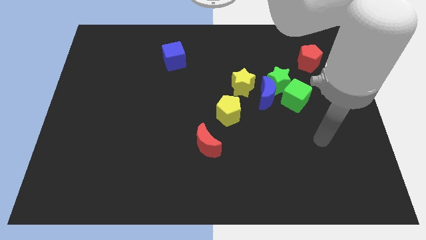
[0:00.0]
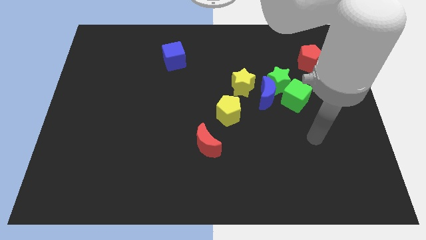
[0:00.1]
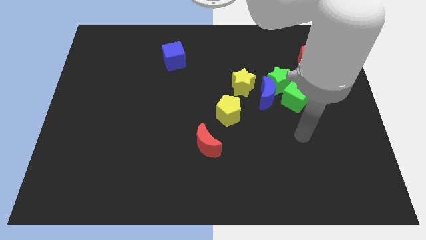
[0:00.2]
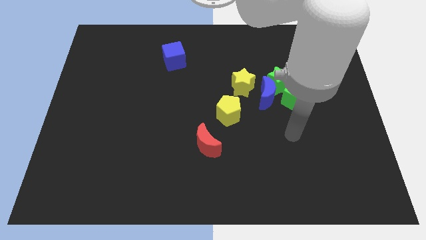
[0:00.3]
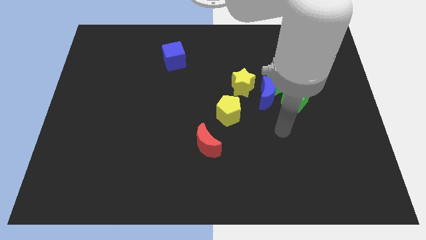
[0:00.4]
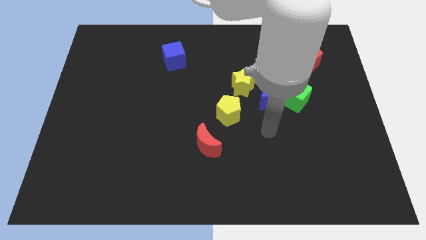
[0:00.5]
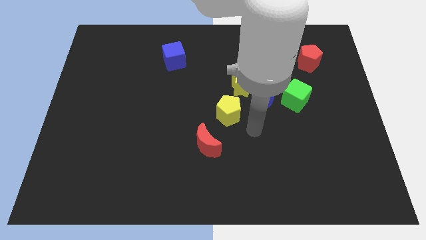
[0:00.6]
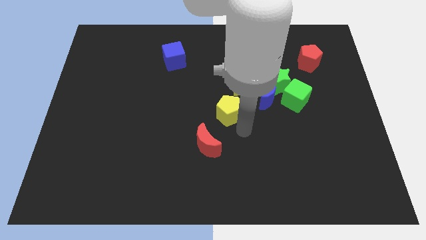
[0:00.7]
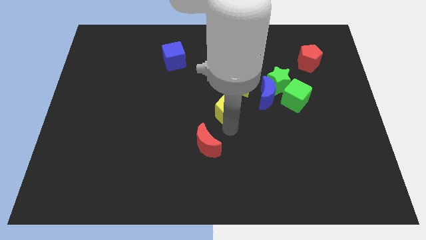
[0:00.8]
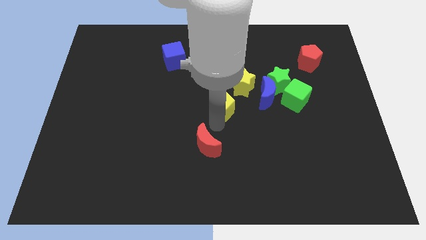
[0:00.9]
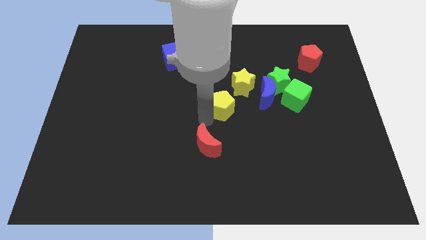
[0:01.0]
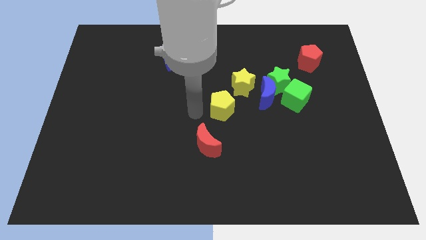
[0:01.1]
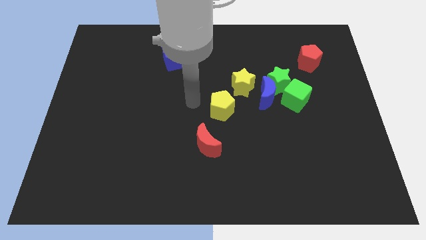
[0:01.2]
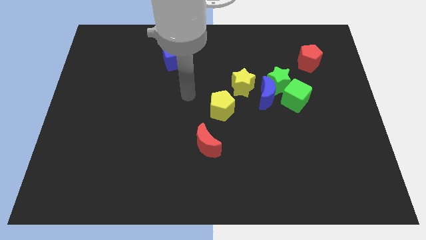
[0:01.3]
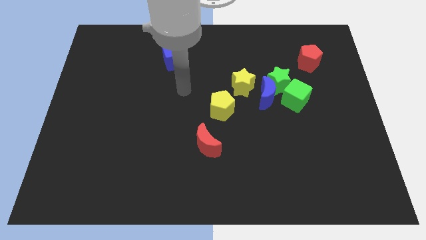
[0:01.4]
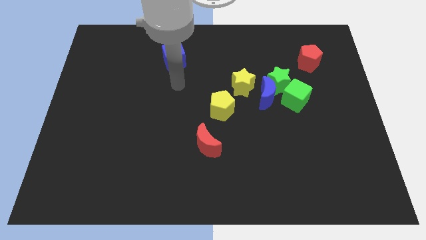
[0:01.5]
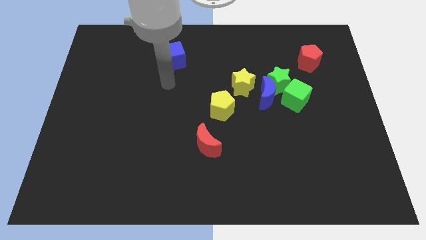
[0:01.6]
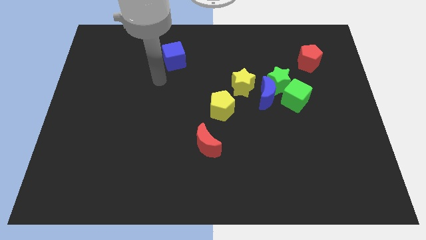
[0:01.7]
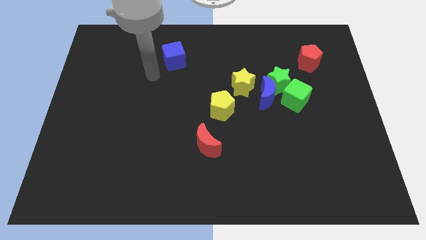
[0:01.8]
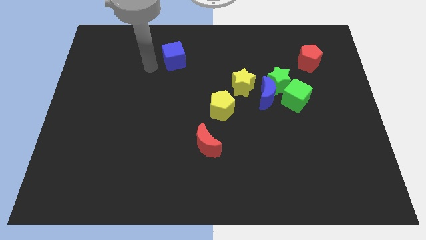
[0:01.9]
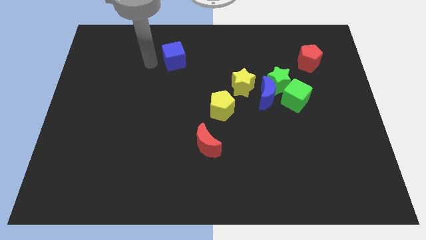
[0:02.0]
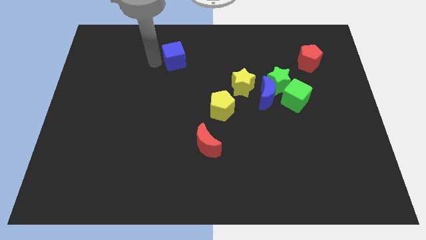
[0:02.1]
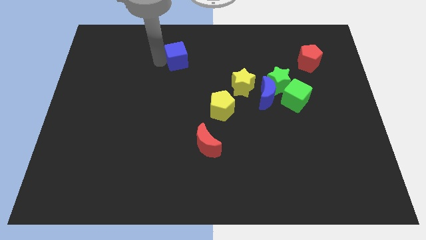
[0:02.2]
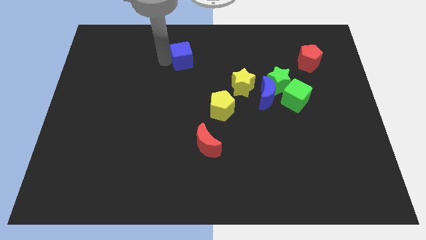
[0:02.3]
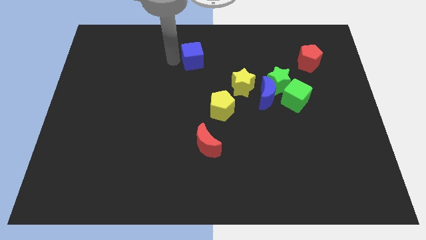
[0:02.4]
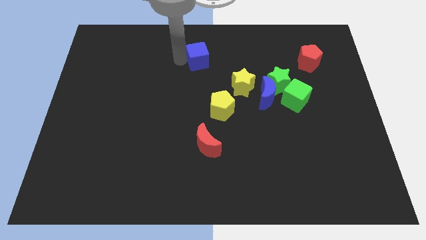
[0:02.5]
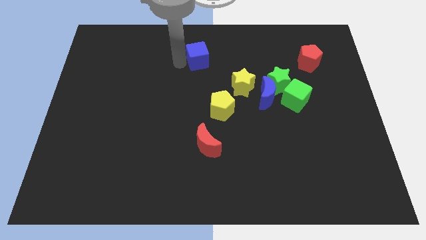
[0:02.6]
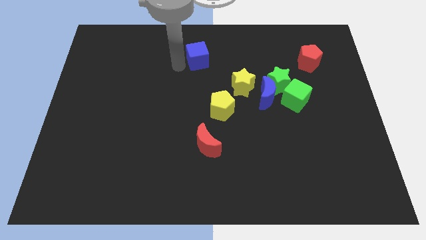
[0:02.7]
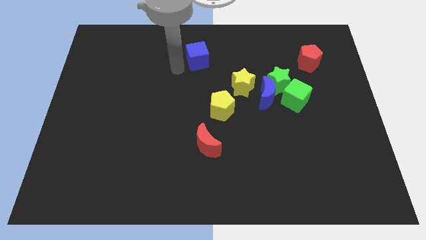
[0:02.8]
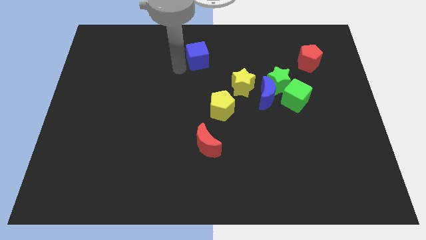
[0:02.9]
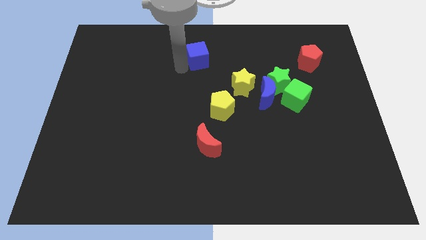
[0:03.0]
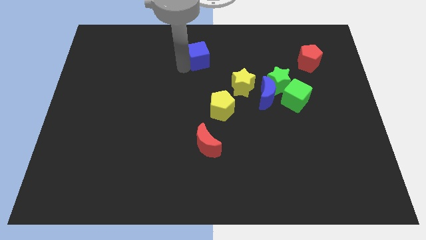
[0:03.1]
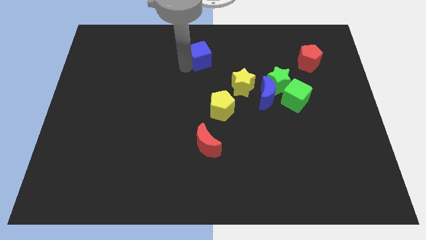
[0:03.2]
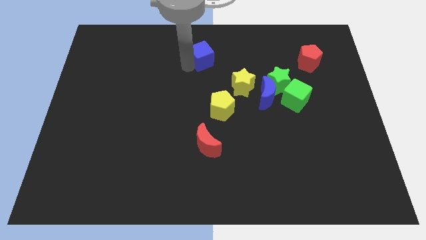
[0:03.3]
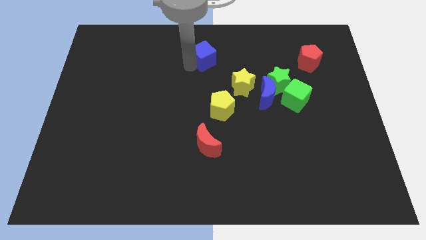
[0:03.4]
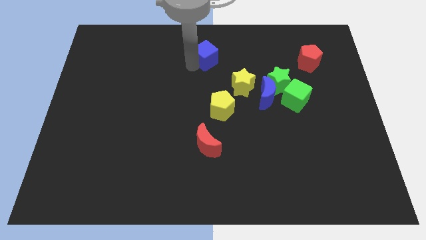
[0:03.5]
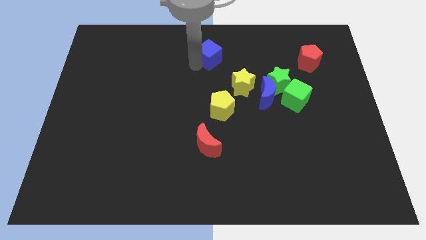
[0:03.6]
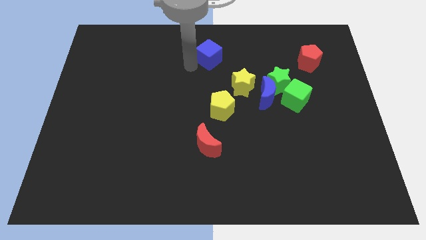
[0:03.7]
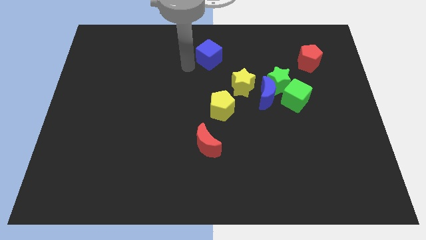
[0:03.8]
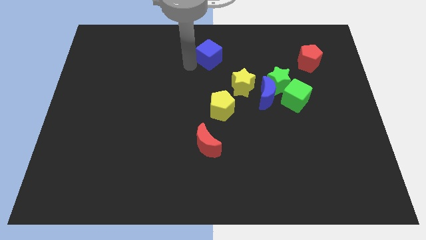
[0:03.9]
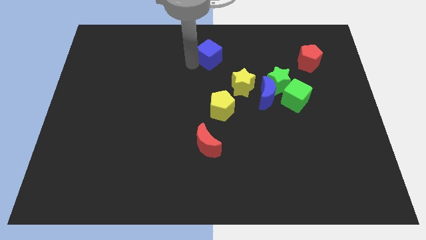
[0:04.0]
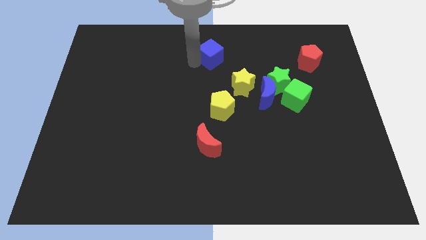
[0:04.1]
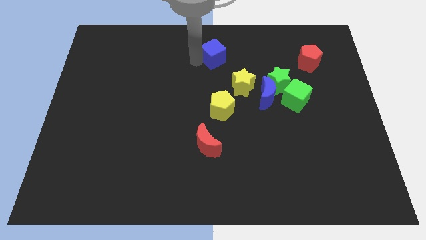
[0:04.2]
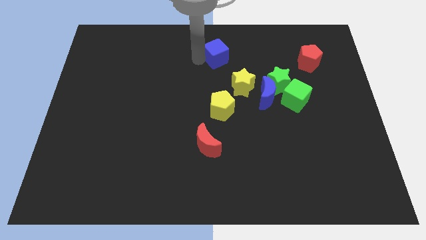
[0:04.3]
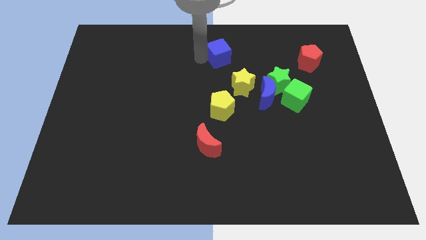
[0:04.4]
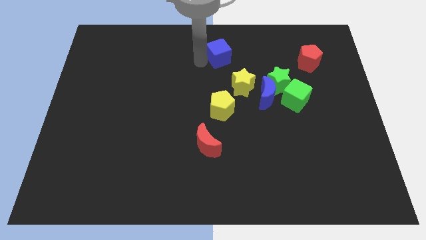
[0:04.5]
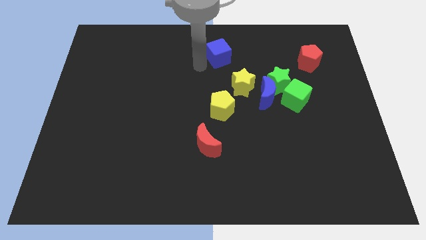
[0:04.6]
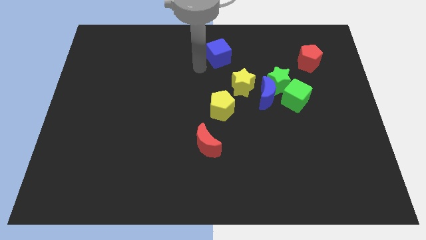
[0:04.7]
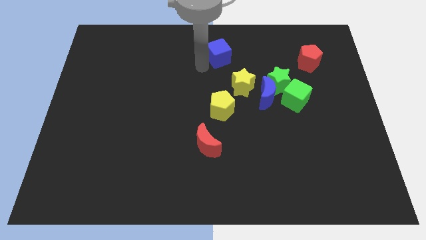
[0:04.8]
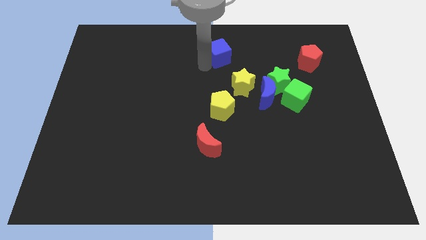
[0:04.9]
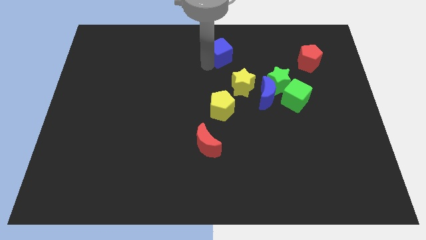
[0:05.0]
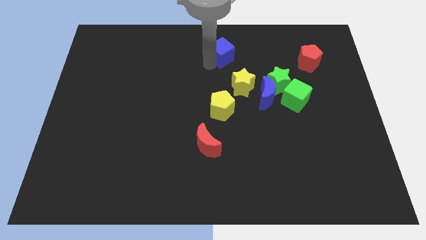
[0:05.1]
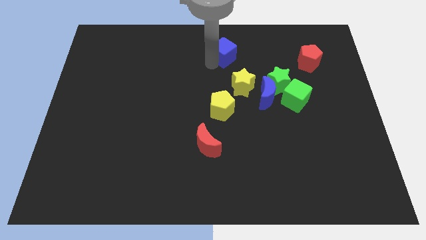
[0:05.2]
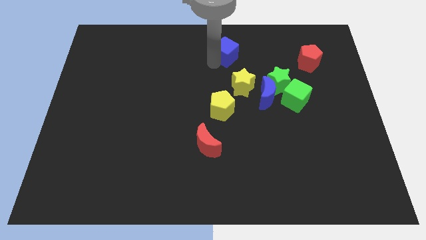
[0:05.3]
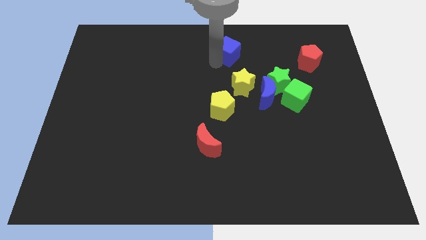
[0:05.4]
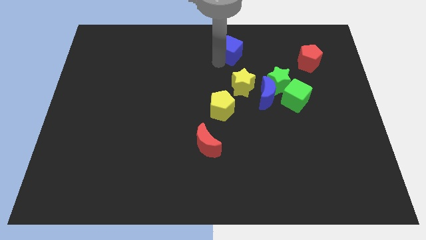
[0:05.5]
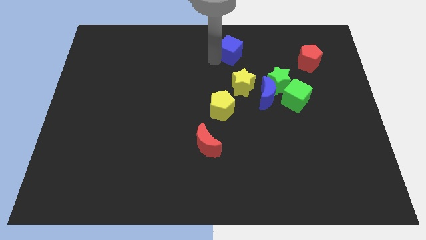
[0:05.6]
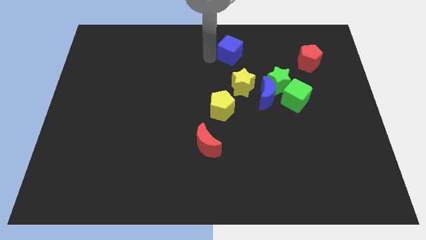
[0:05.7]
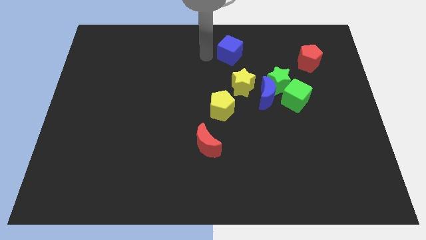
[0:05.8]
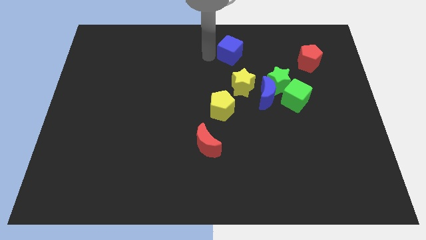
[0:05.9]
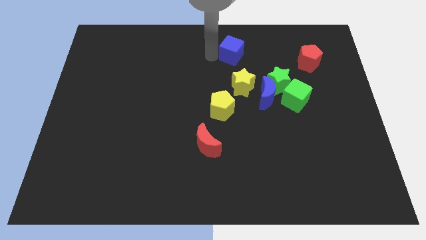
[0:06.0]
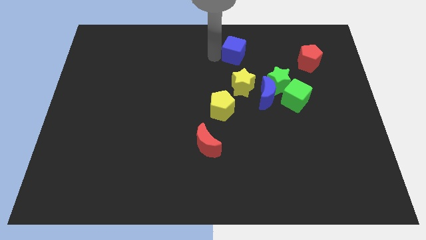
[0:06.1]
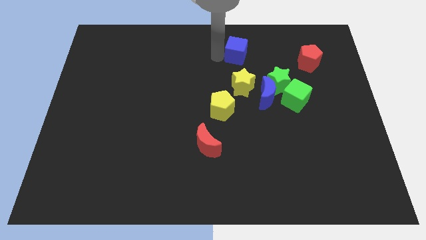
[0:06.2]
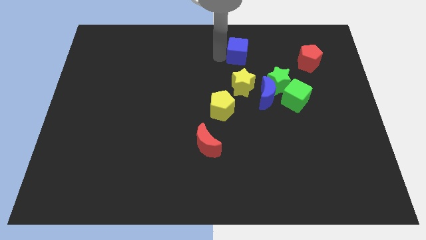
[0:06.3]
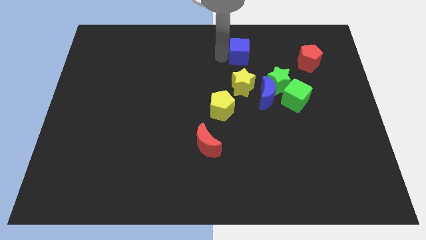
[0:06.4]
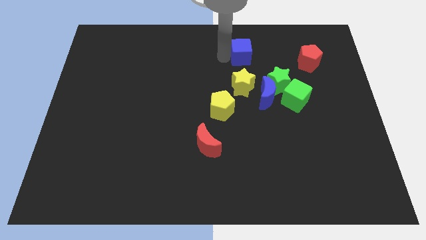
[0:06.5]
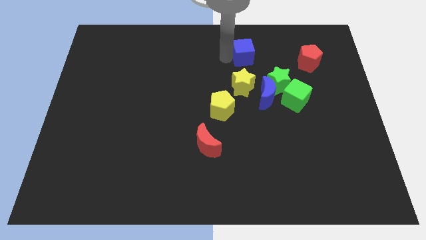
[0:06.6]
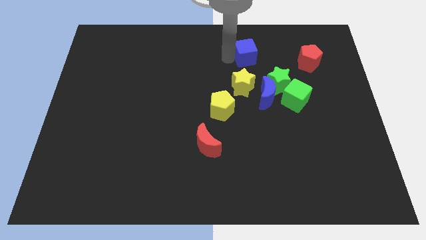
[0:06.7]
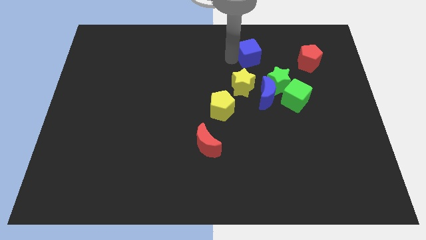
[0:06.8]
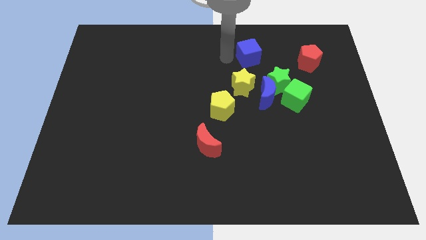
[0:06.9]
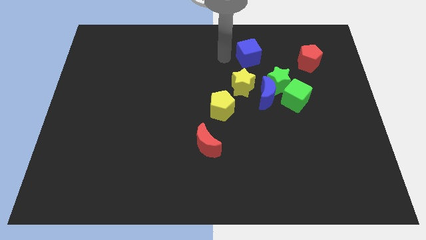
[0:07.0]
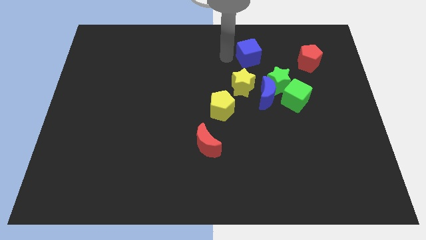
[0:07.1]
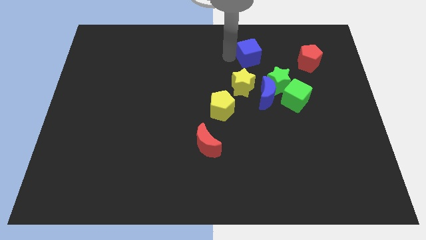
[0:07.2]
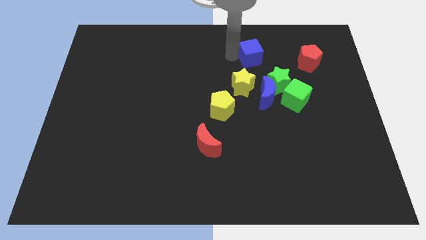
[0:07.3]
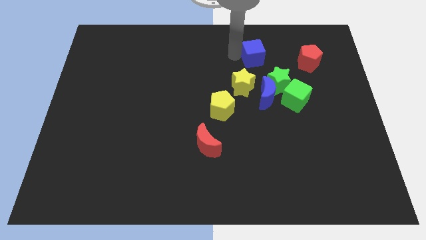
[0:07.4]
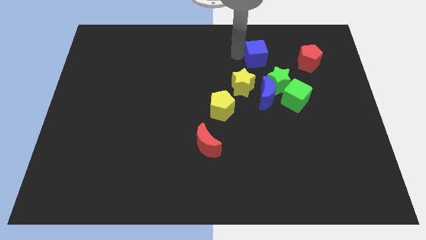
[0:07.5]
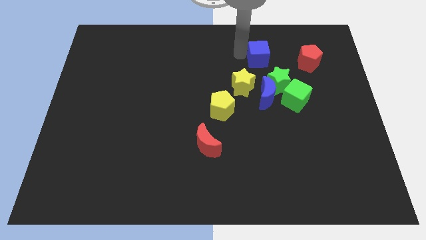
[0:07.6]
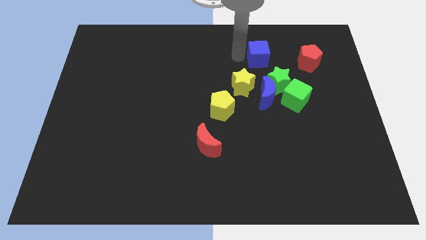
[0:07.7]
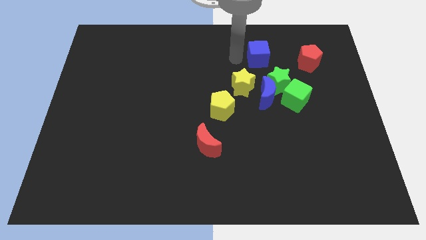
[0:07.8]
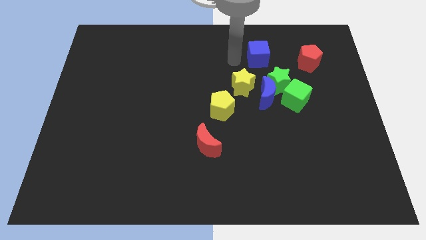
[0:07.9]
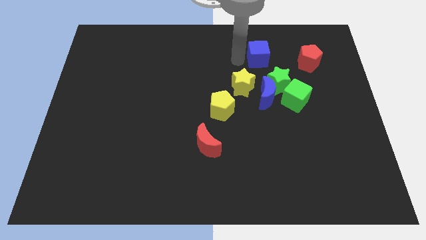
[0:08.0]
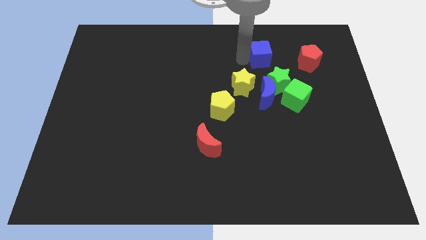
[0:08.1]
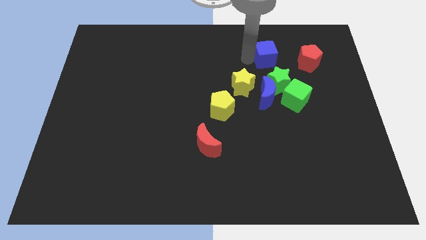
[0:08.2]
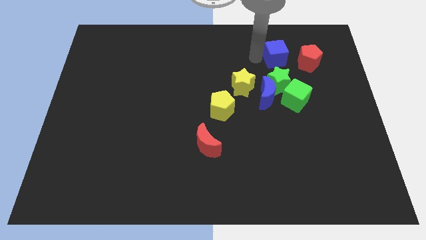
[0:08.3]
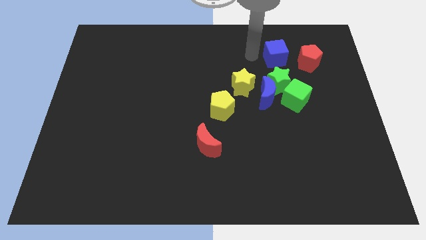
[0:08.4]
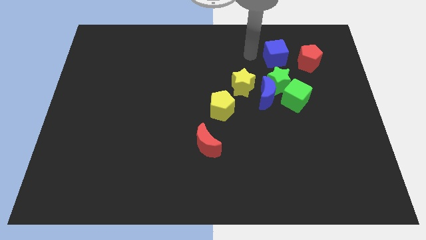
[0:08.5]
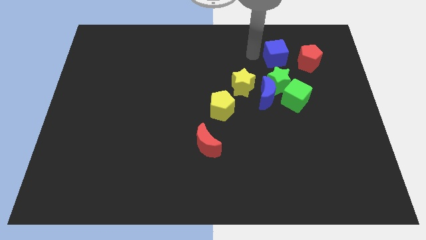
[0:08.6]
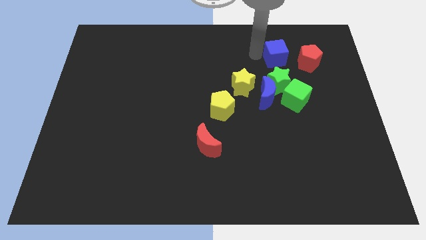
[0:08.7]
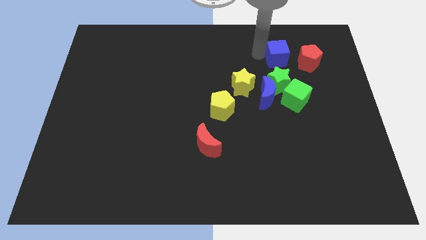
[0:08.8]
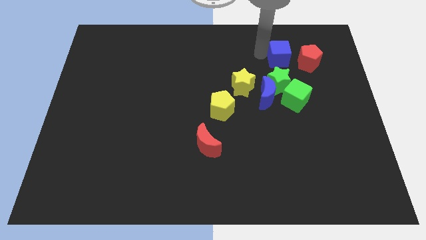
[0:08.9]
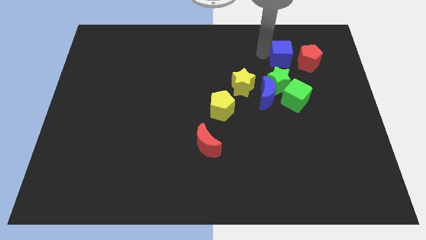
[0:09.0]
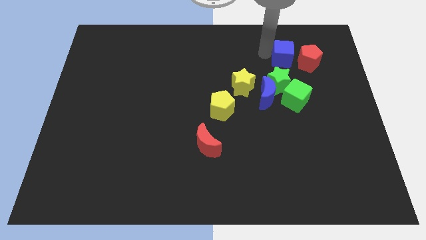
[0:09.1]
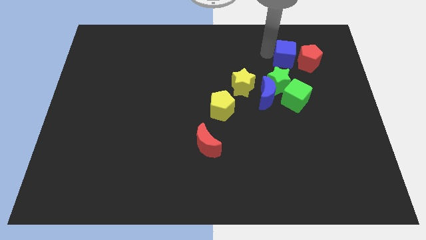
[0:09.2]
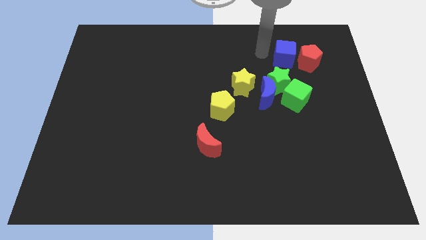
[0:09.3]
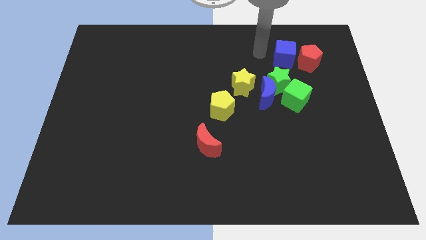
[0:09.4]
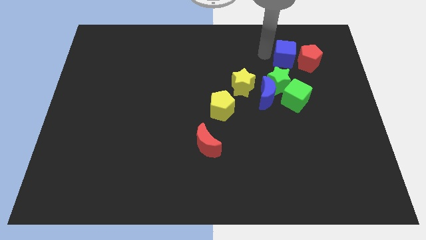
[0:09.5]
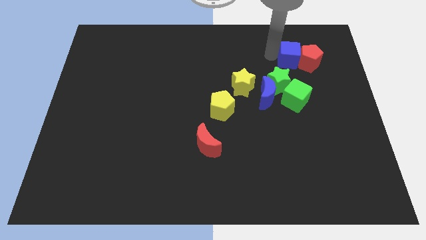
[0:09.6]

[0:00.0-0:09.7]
put the blue cube close to the red pentagon
